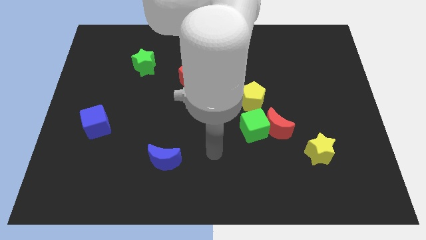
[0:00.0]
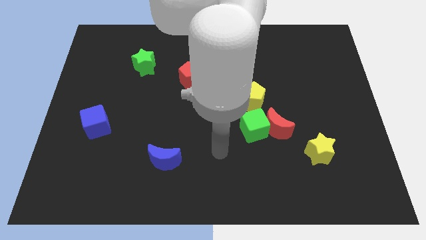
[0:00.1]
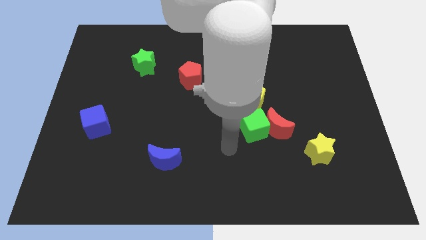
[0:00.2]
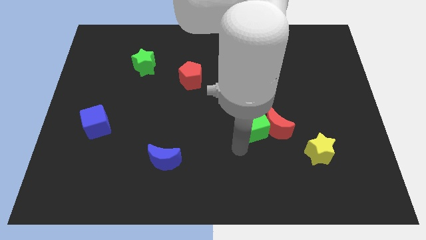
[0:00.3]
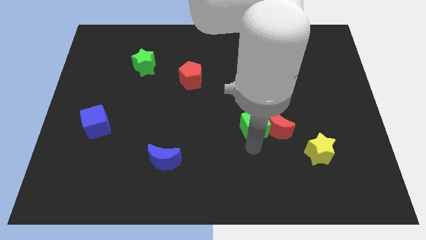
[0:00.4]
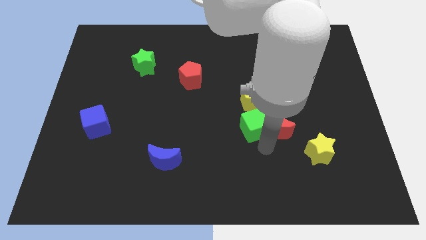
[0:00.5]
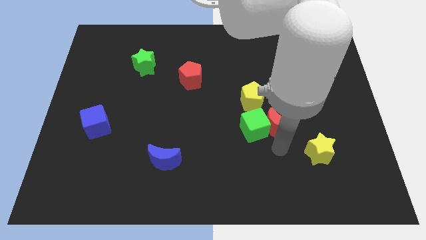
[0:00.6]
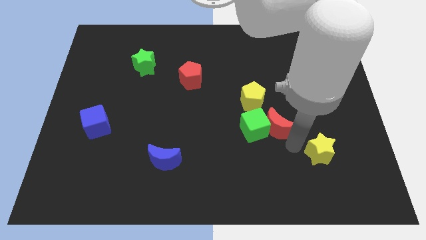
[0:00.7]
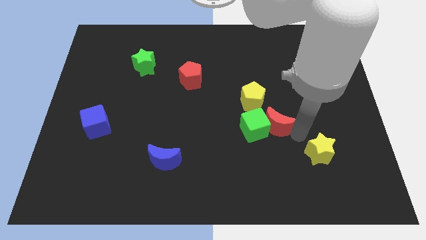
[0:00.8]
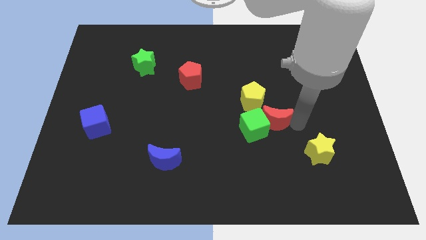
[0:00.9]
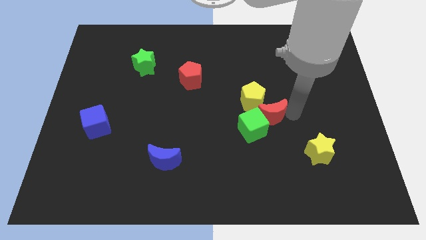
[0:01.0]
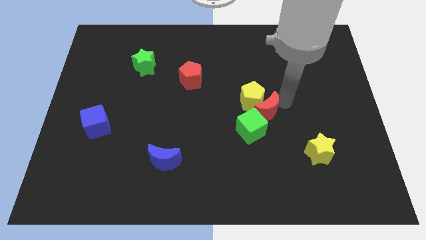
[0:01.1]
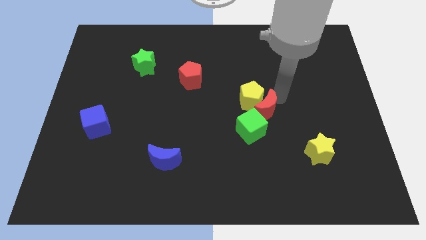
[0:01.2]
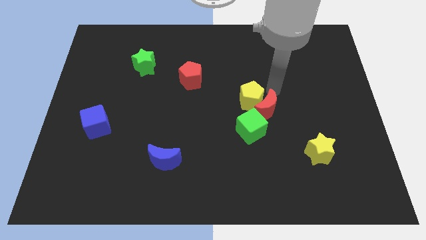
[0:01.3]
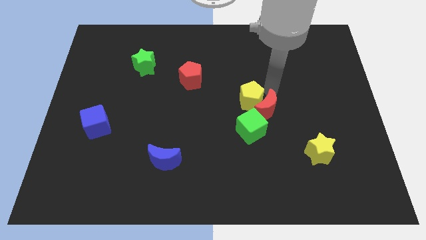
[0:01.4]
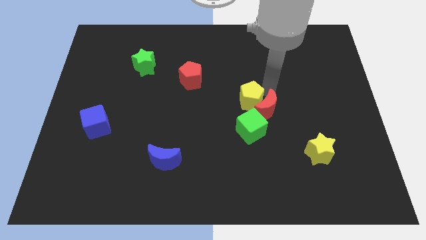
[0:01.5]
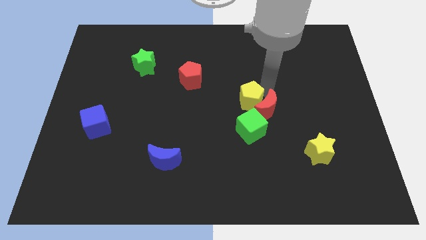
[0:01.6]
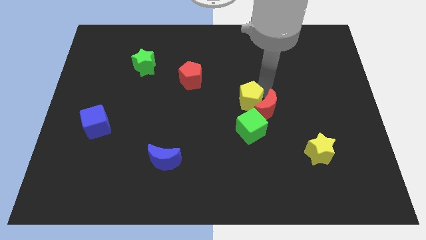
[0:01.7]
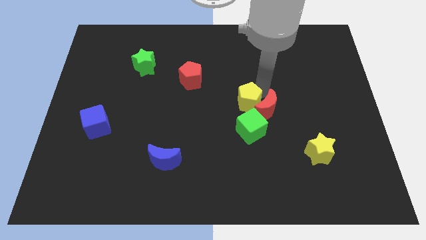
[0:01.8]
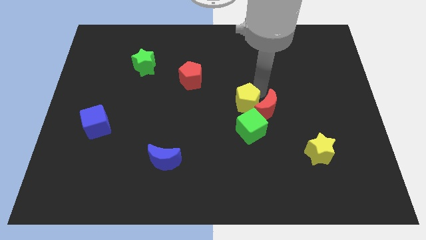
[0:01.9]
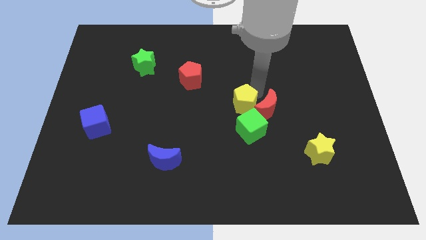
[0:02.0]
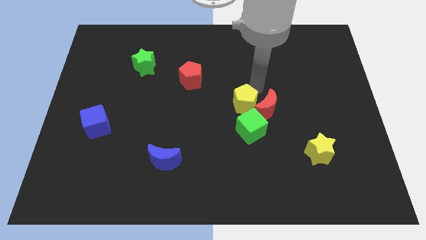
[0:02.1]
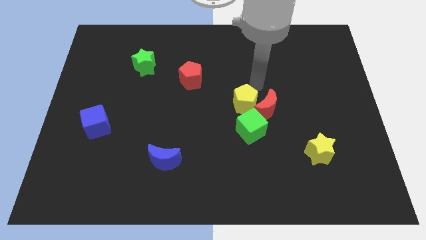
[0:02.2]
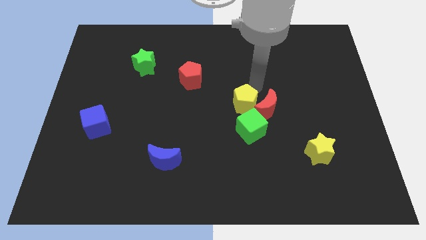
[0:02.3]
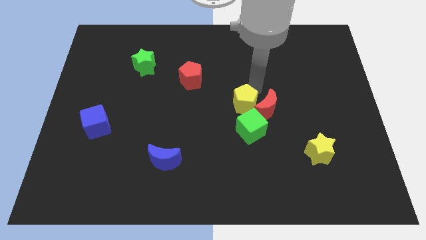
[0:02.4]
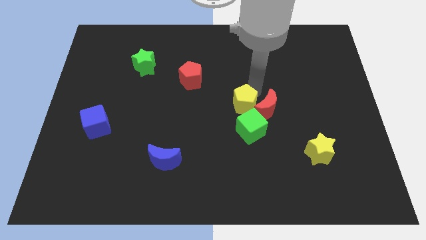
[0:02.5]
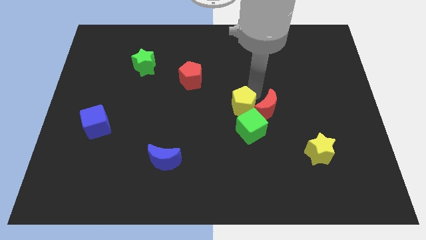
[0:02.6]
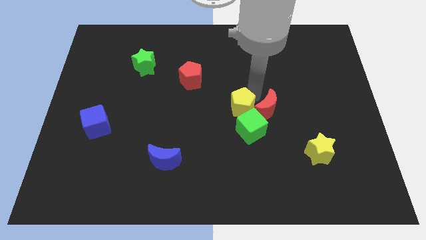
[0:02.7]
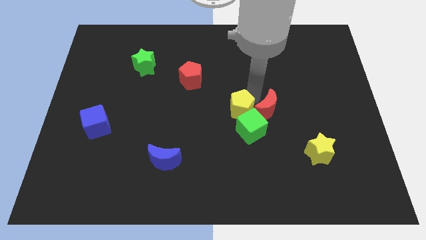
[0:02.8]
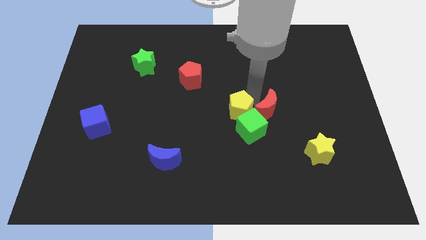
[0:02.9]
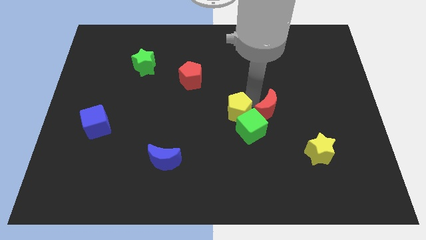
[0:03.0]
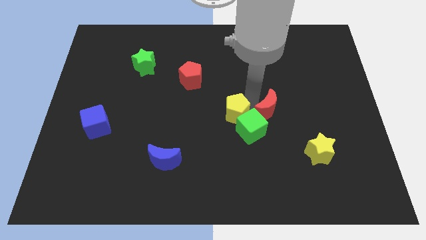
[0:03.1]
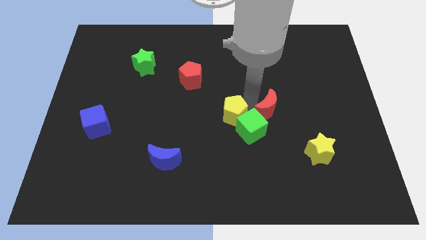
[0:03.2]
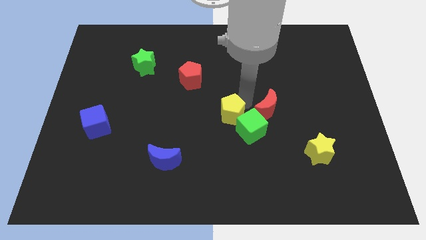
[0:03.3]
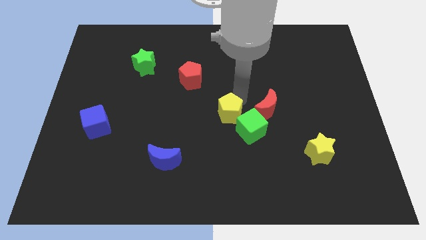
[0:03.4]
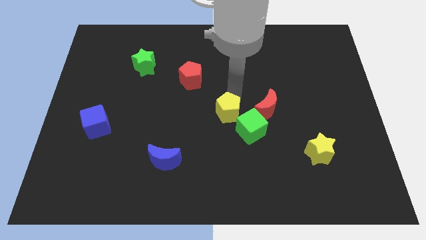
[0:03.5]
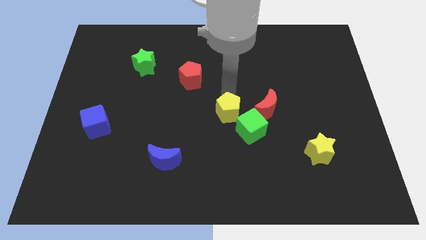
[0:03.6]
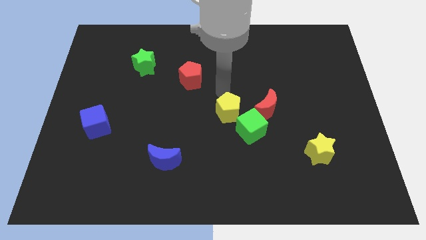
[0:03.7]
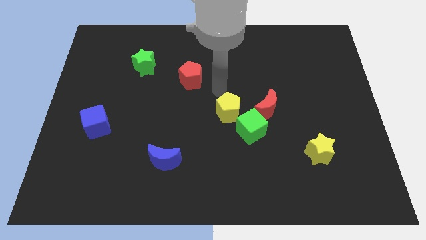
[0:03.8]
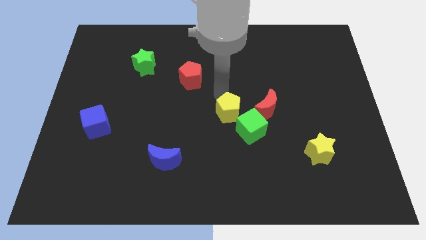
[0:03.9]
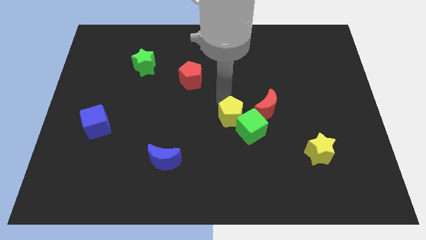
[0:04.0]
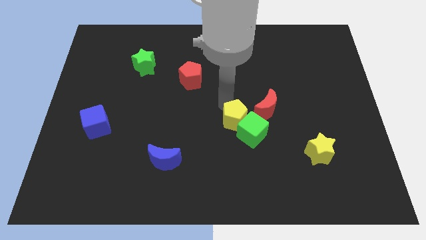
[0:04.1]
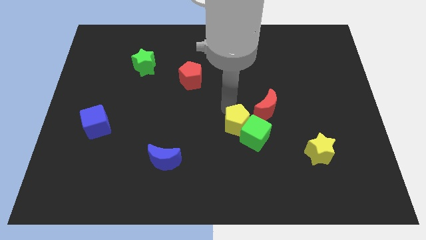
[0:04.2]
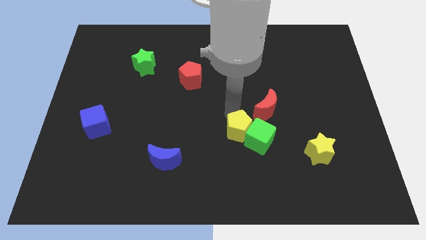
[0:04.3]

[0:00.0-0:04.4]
slide the yellow pentagon down a little bit

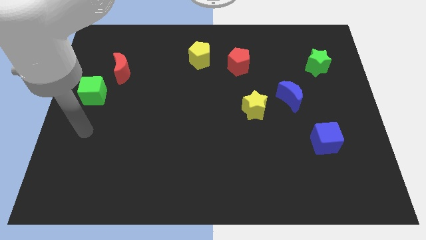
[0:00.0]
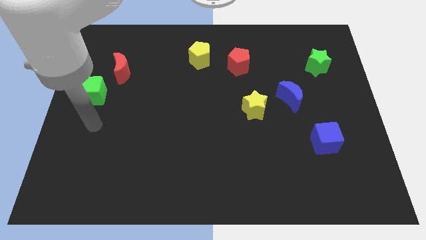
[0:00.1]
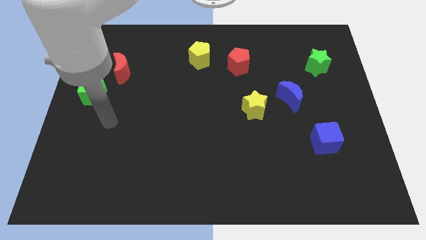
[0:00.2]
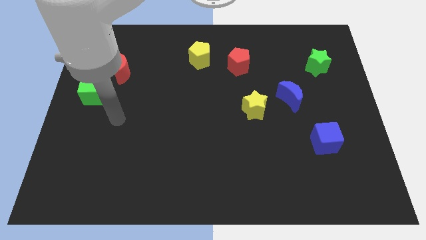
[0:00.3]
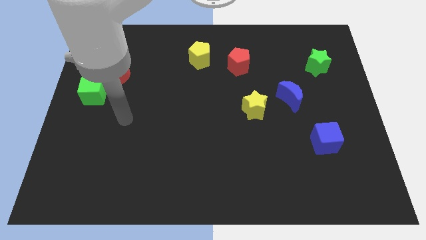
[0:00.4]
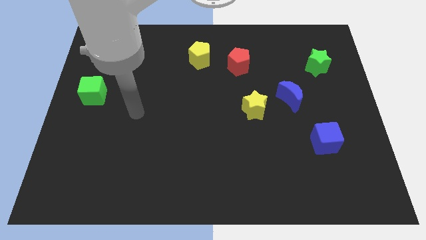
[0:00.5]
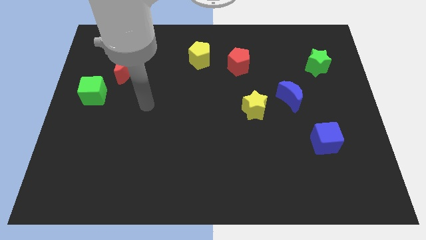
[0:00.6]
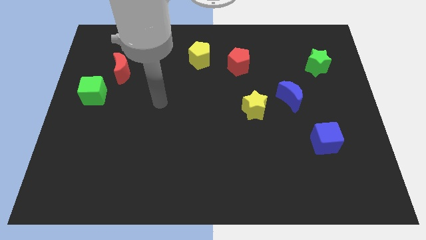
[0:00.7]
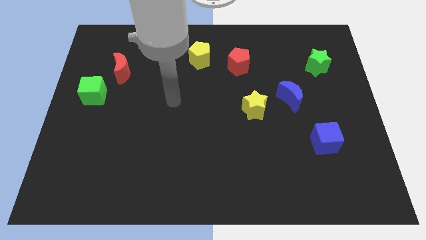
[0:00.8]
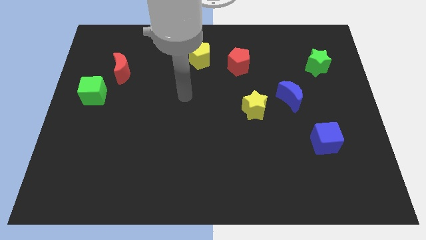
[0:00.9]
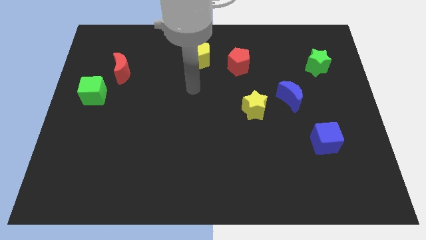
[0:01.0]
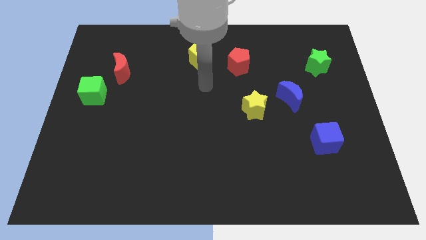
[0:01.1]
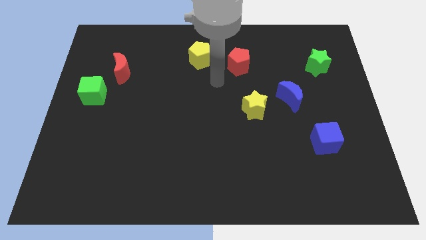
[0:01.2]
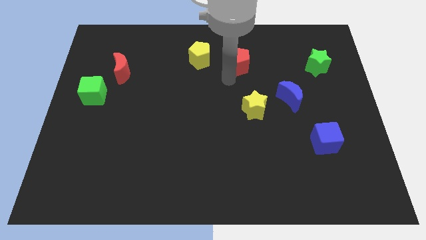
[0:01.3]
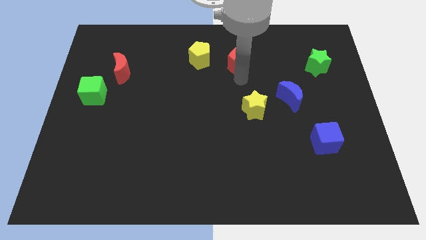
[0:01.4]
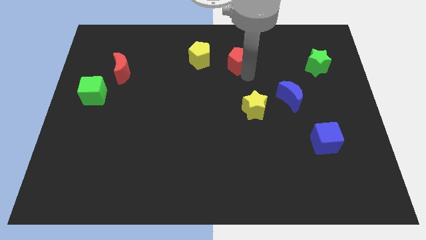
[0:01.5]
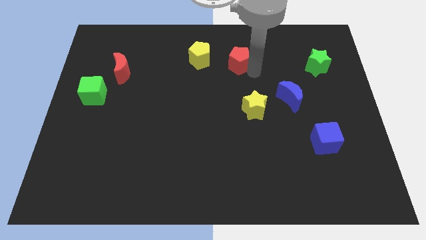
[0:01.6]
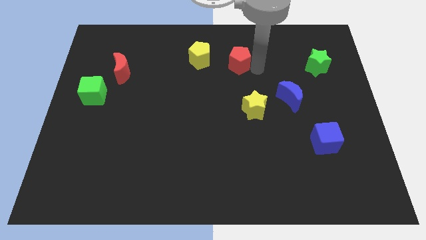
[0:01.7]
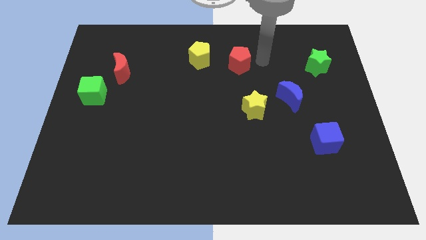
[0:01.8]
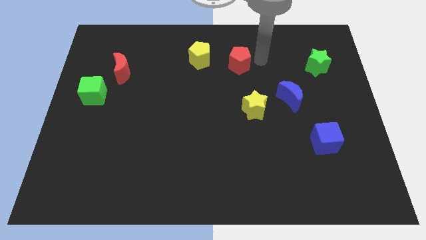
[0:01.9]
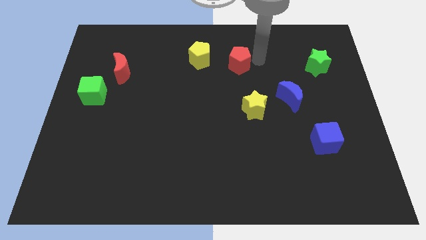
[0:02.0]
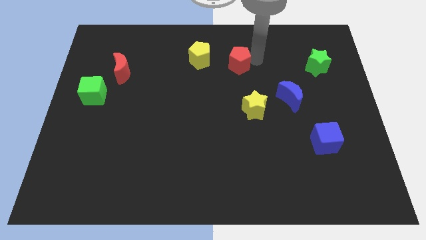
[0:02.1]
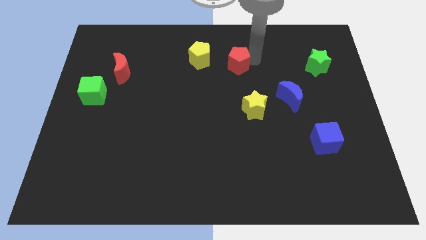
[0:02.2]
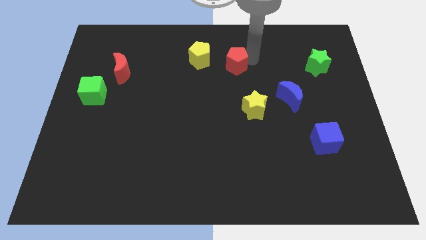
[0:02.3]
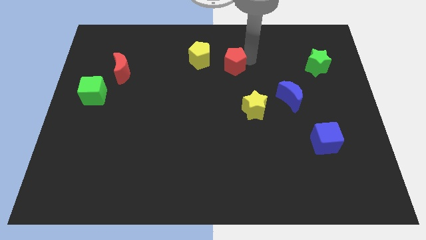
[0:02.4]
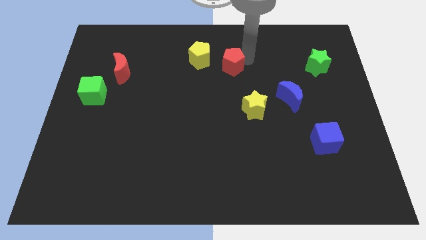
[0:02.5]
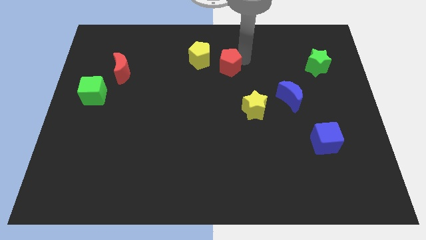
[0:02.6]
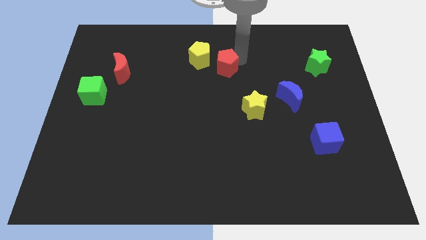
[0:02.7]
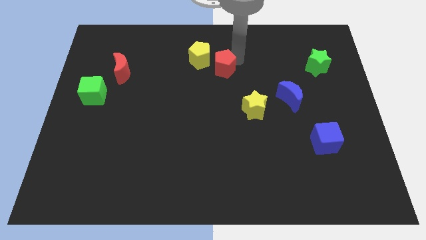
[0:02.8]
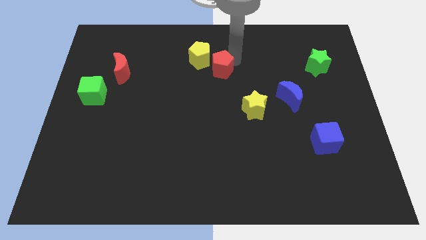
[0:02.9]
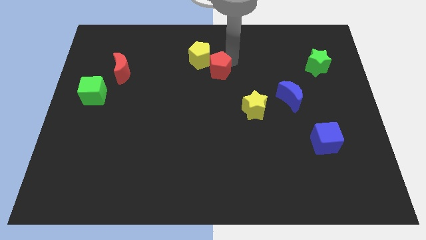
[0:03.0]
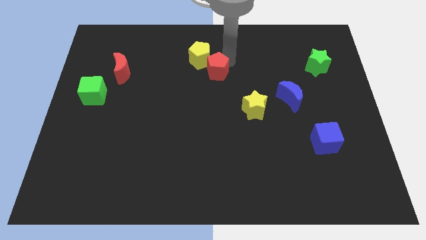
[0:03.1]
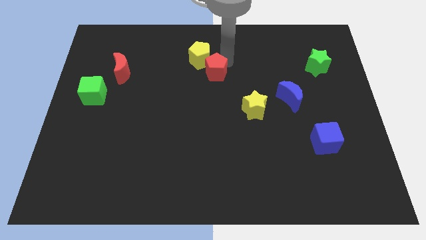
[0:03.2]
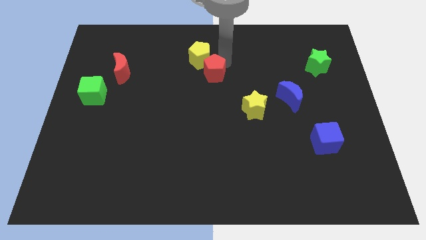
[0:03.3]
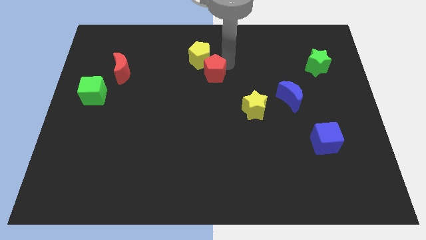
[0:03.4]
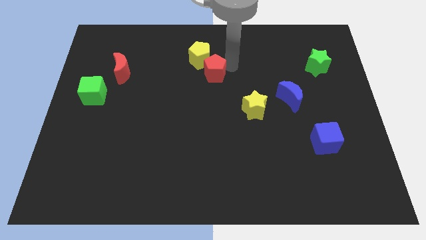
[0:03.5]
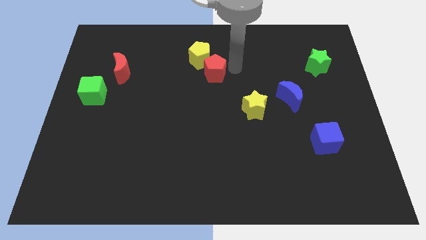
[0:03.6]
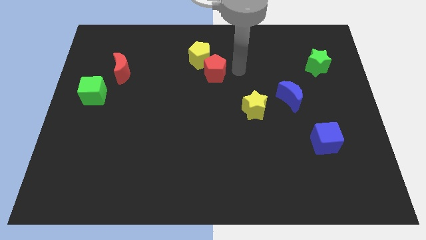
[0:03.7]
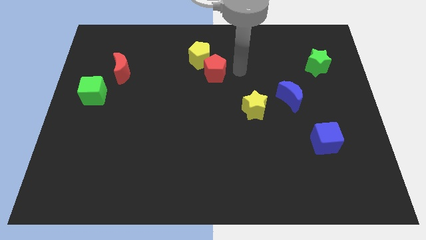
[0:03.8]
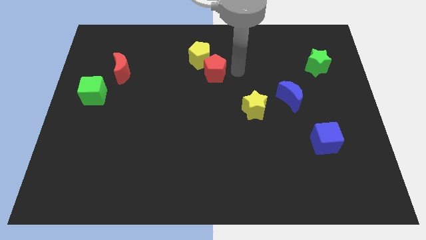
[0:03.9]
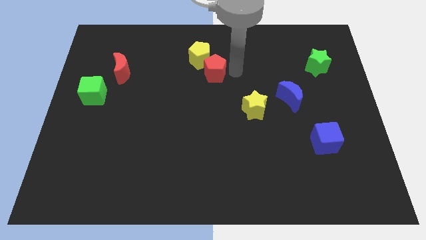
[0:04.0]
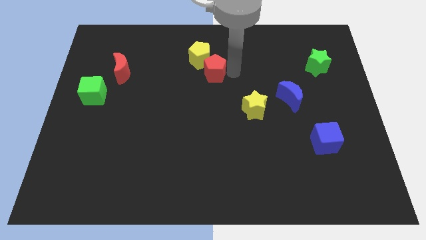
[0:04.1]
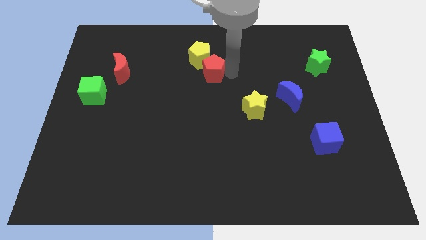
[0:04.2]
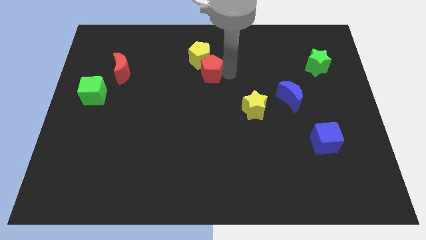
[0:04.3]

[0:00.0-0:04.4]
slide the red pentagon a bit to the left
